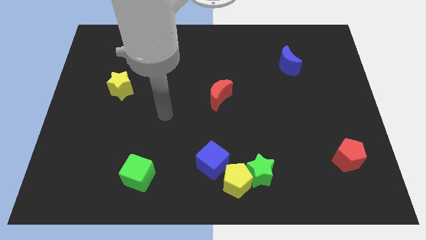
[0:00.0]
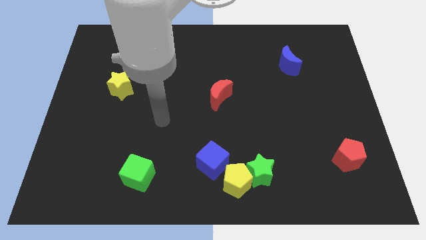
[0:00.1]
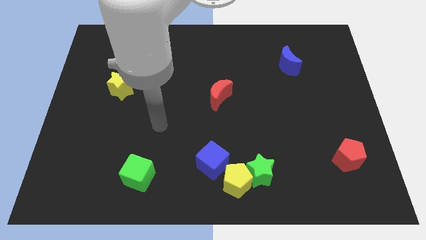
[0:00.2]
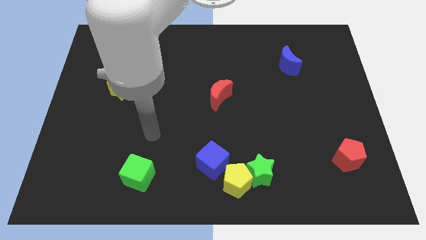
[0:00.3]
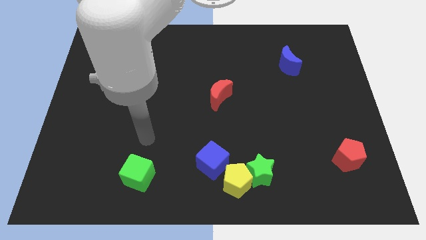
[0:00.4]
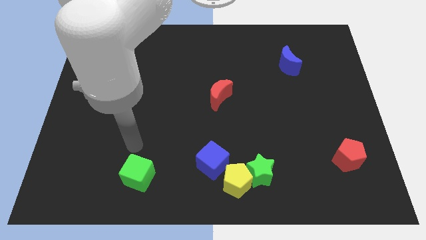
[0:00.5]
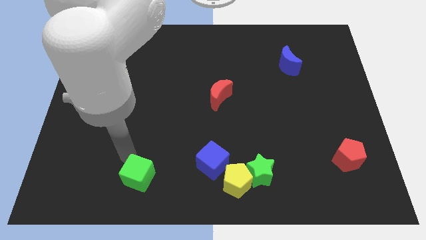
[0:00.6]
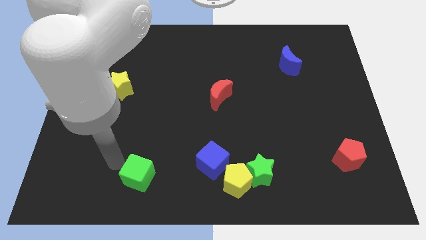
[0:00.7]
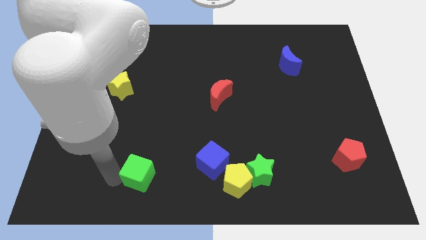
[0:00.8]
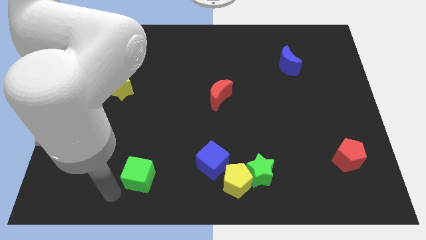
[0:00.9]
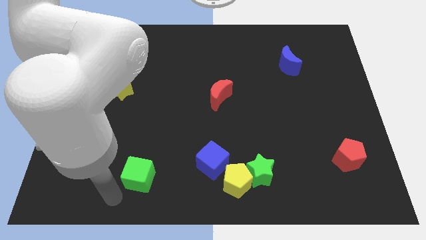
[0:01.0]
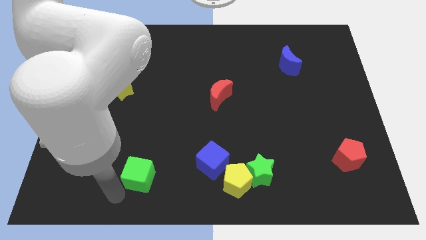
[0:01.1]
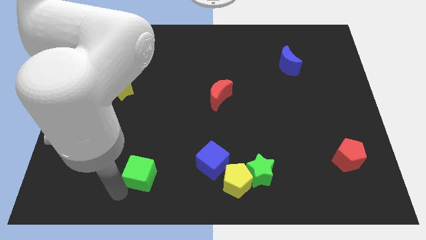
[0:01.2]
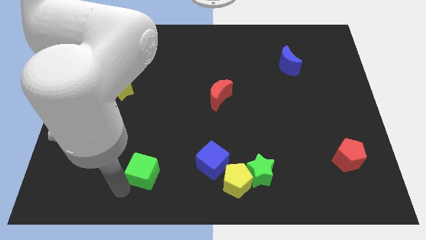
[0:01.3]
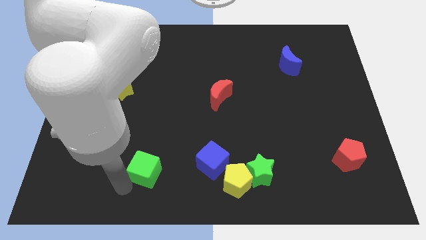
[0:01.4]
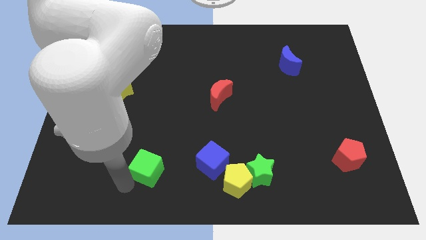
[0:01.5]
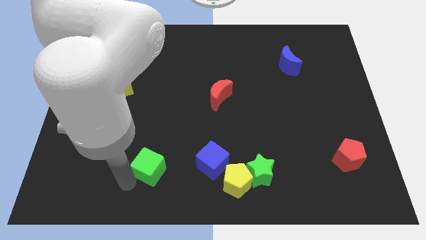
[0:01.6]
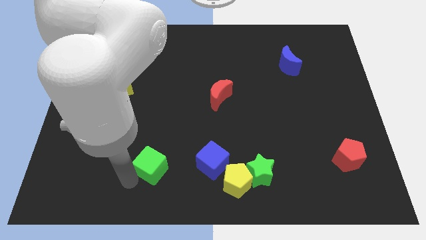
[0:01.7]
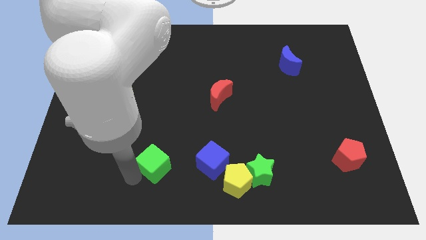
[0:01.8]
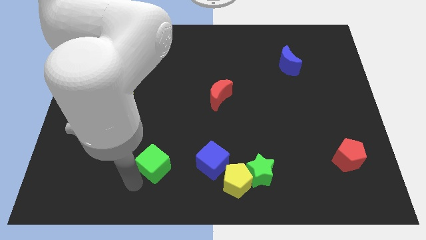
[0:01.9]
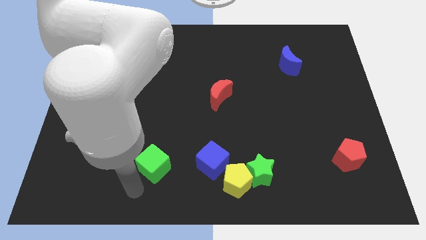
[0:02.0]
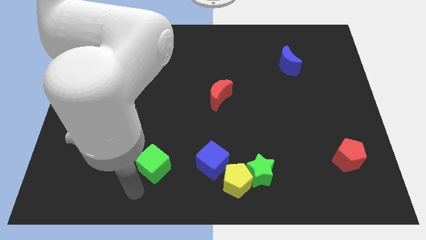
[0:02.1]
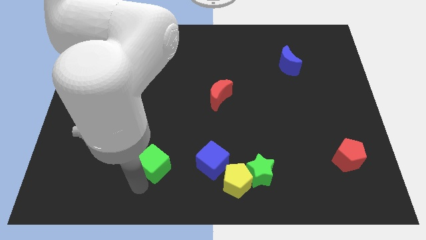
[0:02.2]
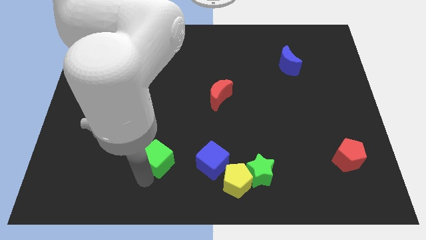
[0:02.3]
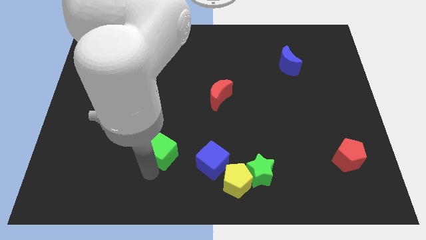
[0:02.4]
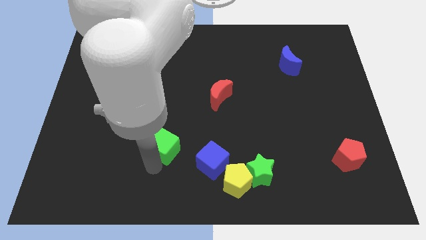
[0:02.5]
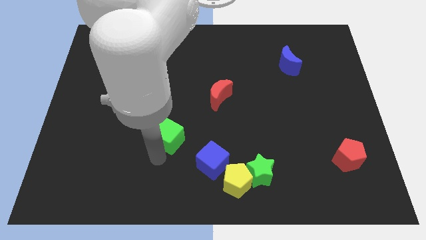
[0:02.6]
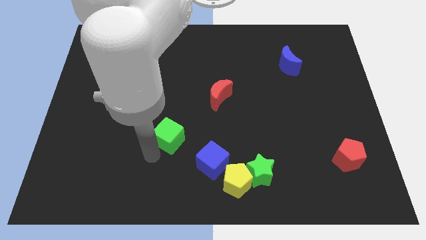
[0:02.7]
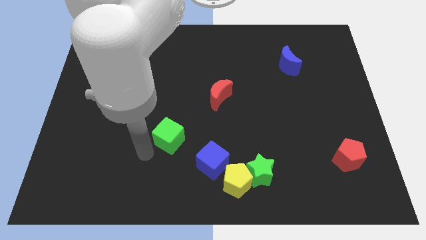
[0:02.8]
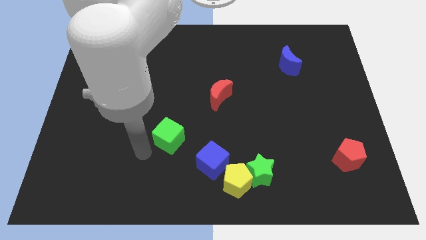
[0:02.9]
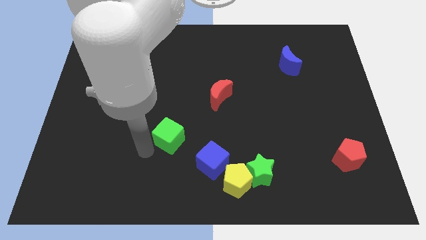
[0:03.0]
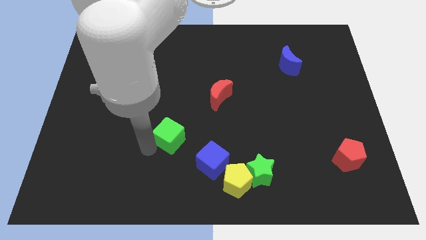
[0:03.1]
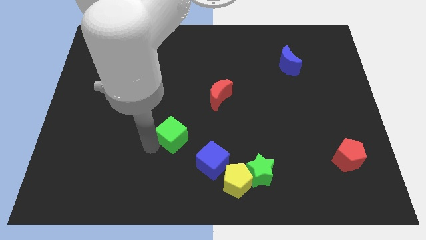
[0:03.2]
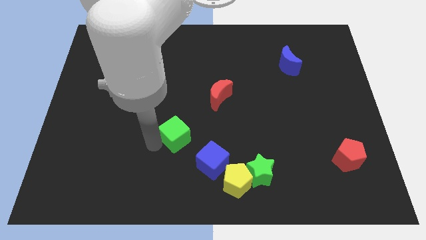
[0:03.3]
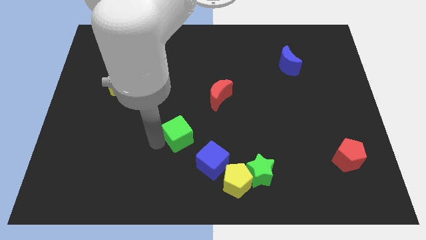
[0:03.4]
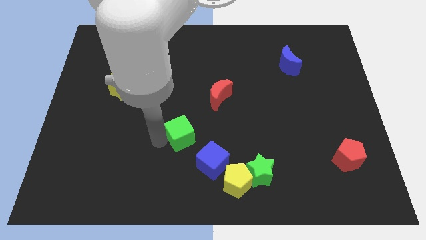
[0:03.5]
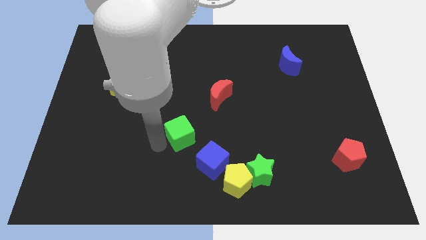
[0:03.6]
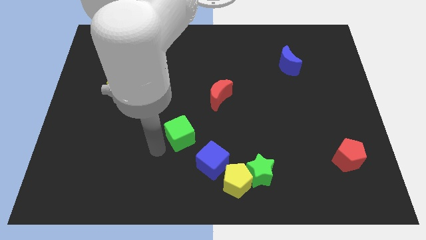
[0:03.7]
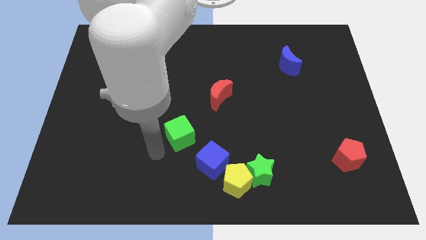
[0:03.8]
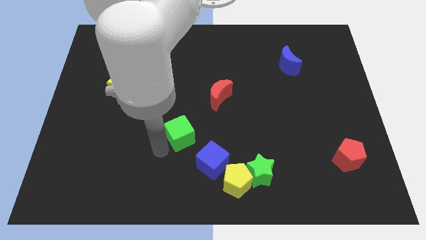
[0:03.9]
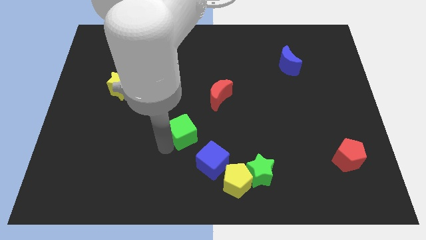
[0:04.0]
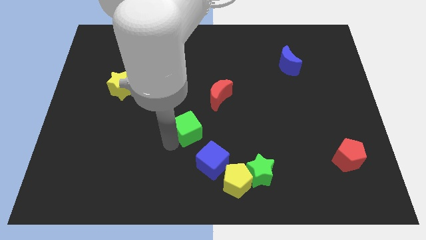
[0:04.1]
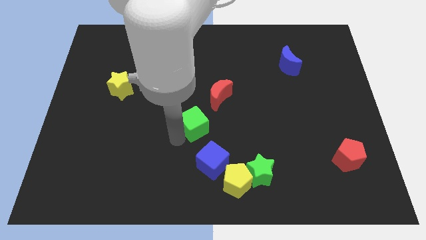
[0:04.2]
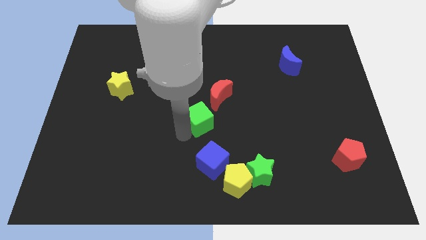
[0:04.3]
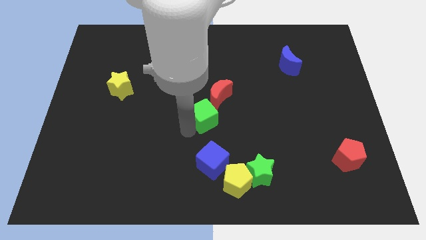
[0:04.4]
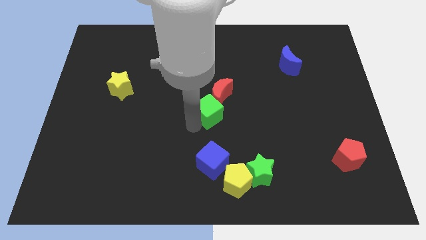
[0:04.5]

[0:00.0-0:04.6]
push the green cube up and right diagonally

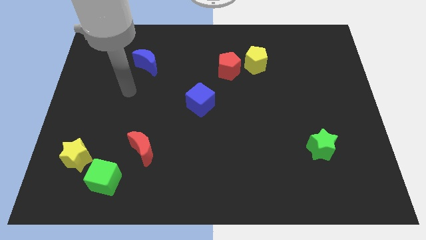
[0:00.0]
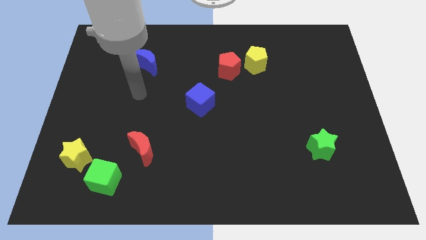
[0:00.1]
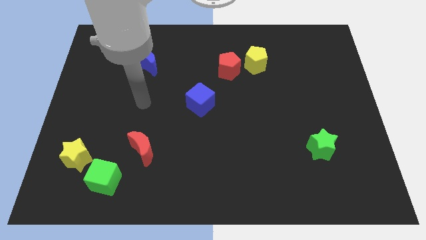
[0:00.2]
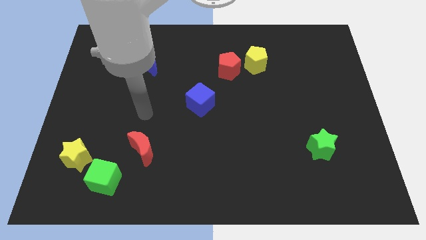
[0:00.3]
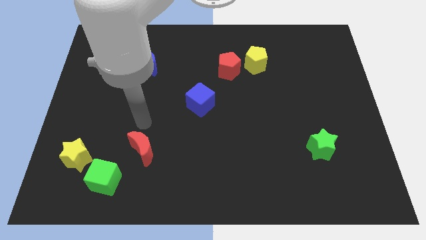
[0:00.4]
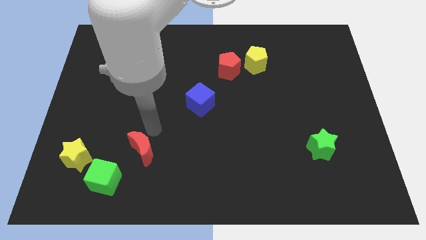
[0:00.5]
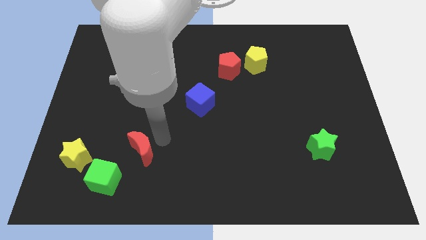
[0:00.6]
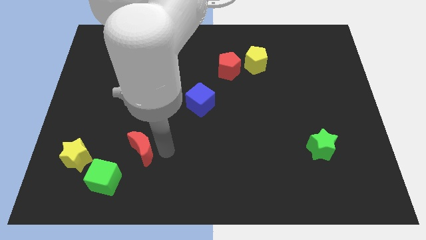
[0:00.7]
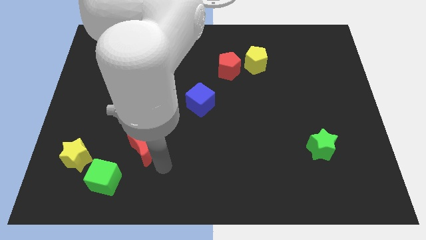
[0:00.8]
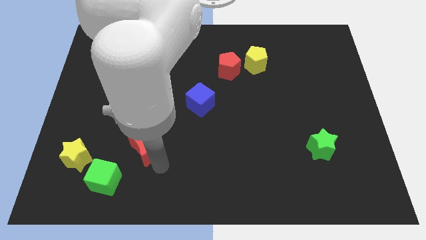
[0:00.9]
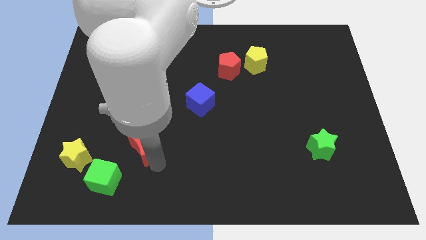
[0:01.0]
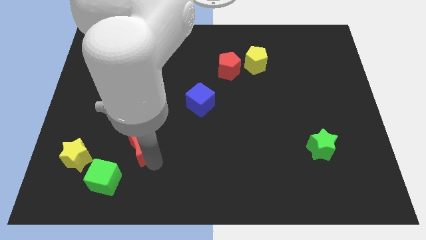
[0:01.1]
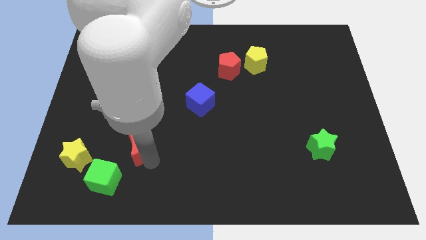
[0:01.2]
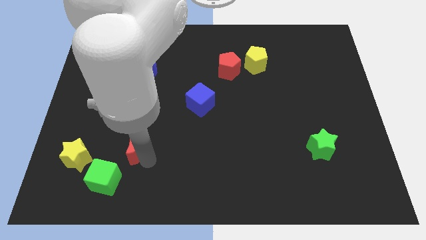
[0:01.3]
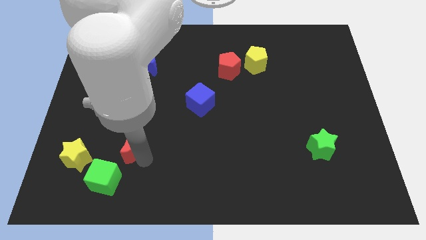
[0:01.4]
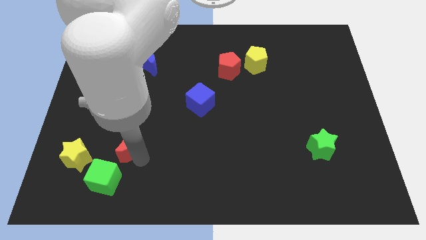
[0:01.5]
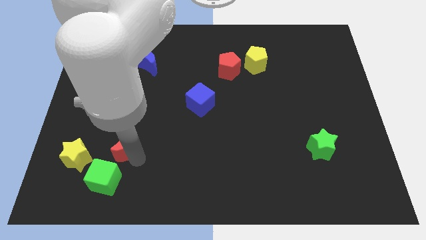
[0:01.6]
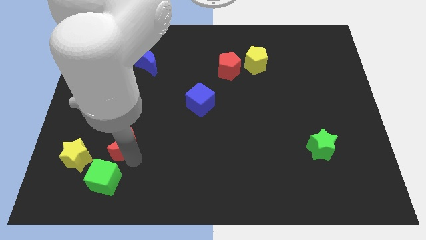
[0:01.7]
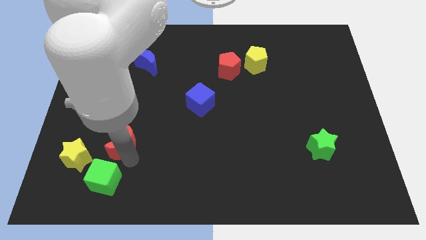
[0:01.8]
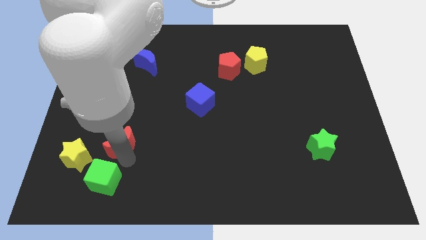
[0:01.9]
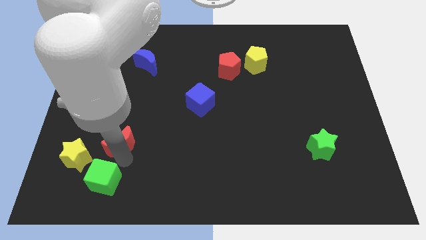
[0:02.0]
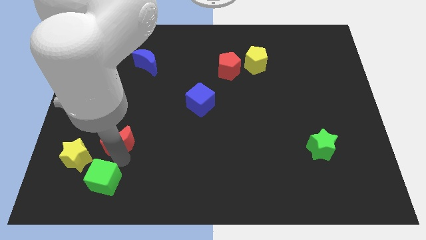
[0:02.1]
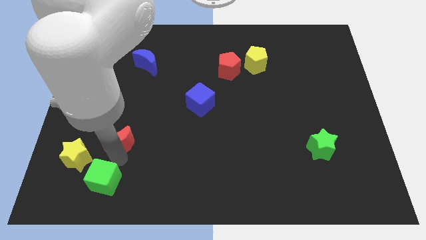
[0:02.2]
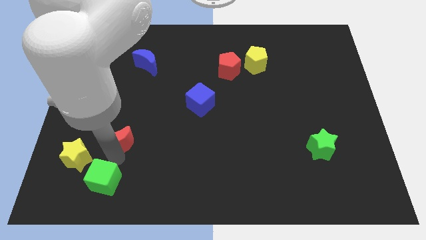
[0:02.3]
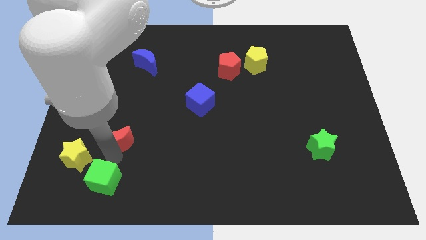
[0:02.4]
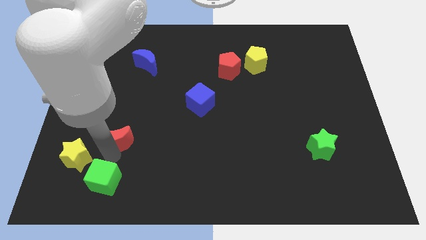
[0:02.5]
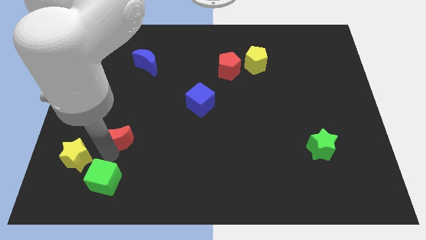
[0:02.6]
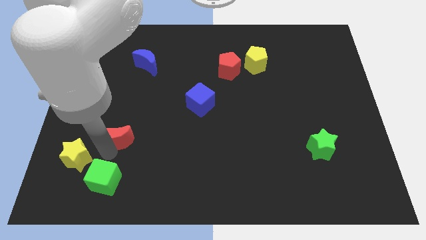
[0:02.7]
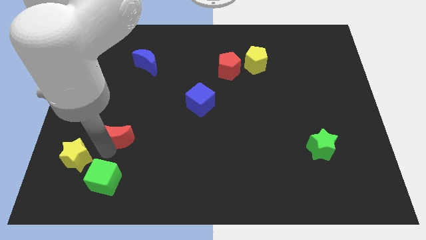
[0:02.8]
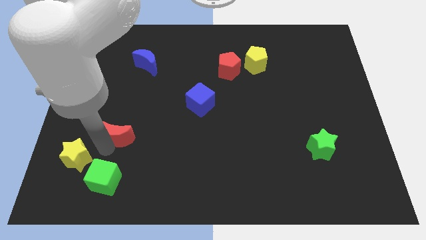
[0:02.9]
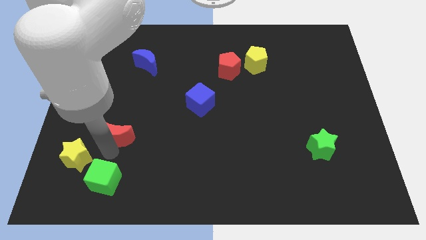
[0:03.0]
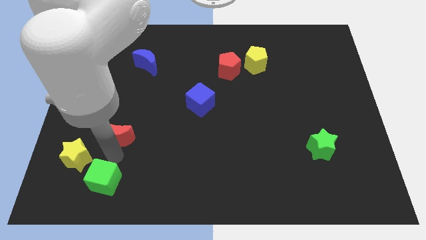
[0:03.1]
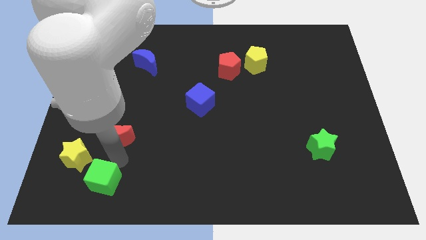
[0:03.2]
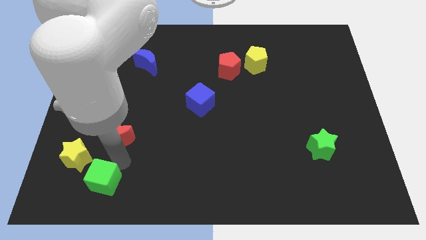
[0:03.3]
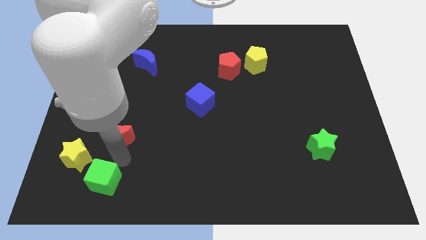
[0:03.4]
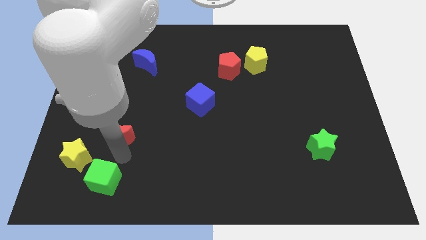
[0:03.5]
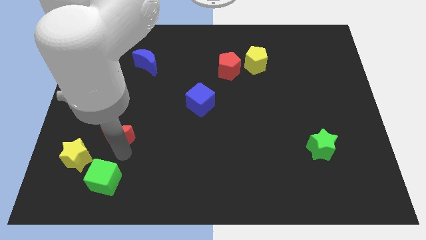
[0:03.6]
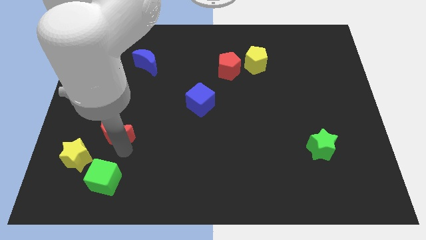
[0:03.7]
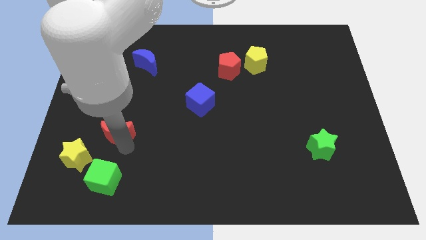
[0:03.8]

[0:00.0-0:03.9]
move the red moon a bit upwards and left diagonally
